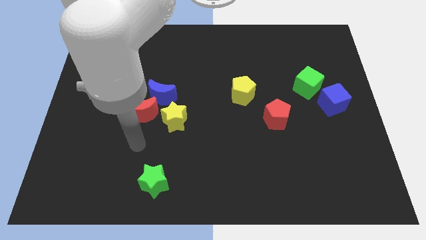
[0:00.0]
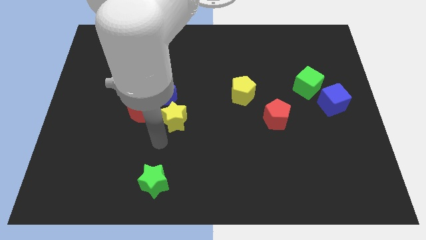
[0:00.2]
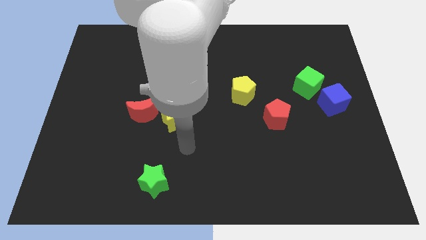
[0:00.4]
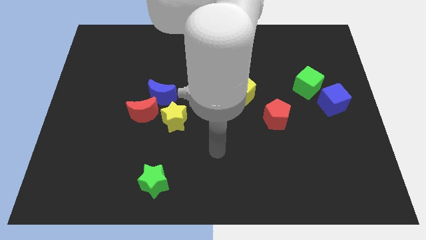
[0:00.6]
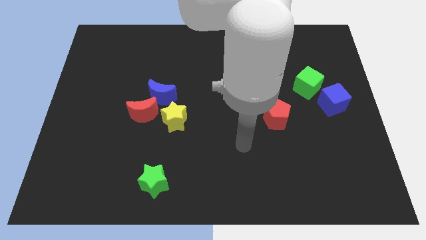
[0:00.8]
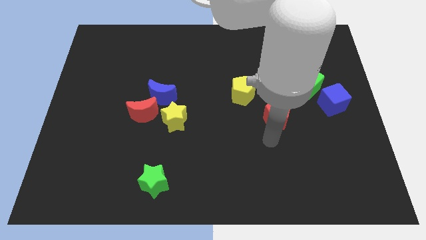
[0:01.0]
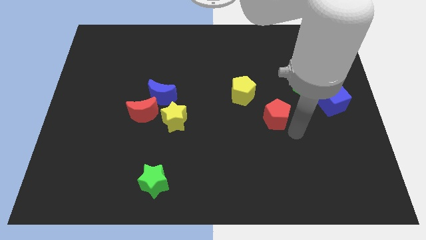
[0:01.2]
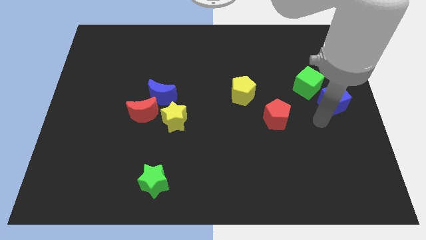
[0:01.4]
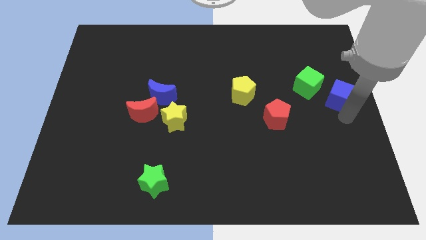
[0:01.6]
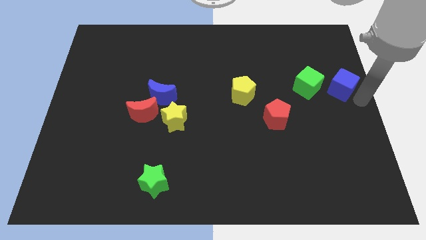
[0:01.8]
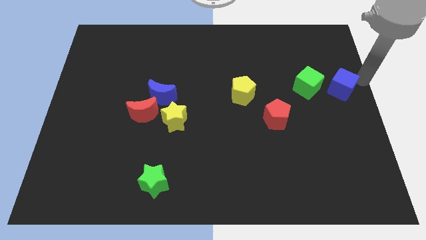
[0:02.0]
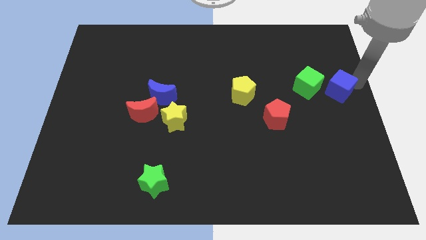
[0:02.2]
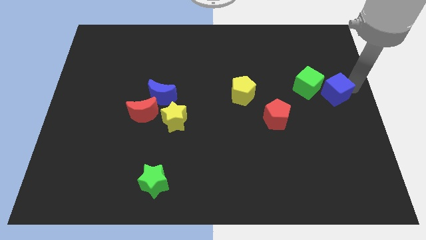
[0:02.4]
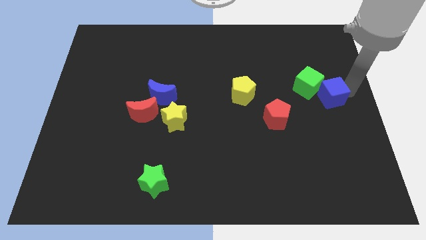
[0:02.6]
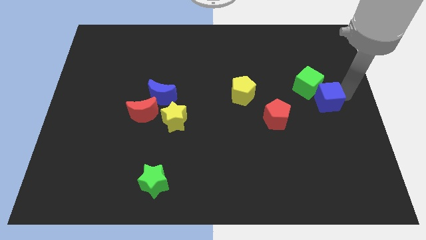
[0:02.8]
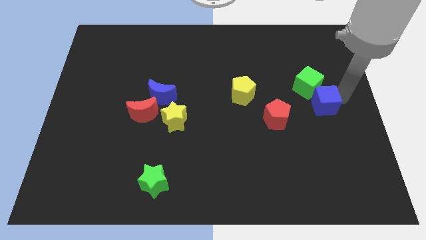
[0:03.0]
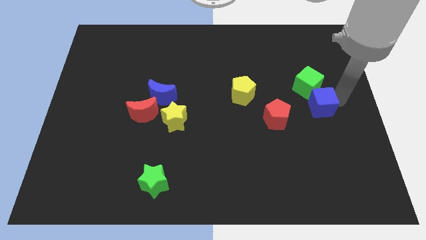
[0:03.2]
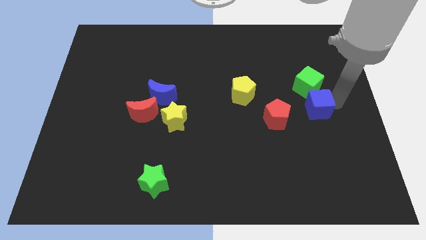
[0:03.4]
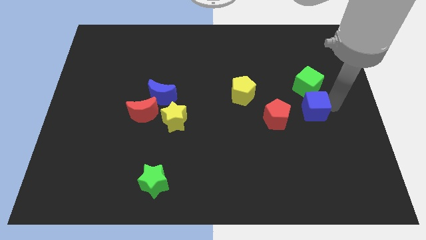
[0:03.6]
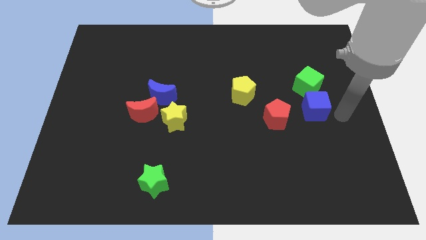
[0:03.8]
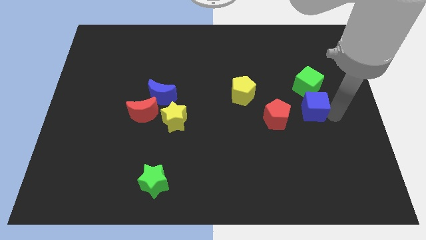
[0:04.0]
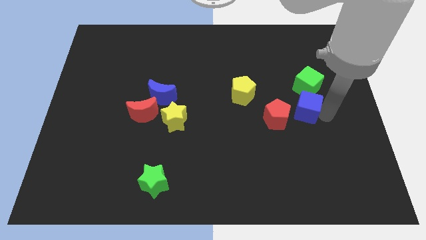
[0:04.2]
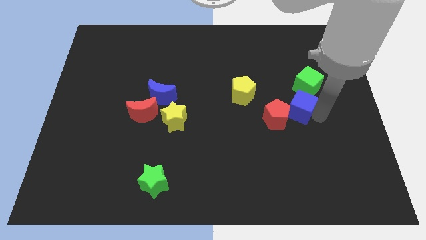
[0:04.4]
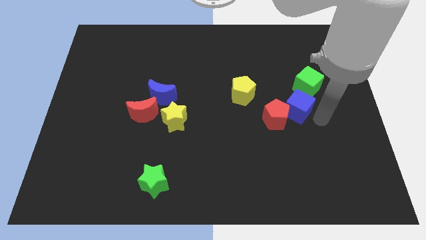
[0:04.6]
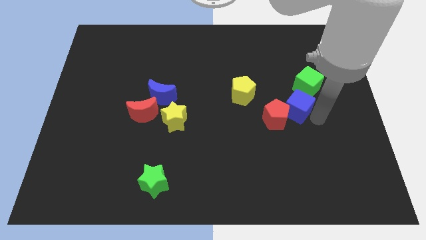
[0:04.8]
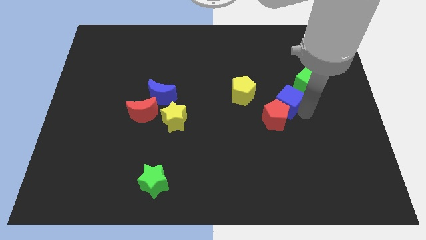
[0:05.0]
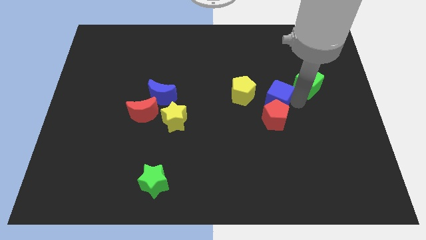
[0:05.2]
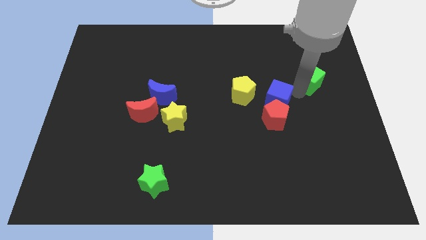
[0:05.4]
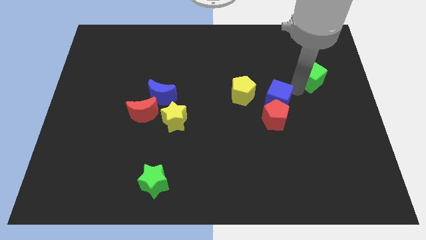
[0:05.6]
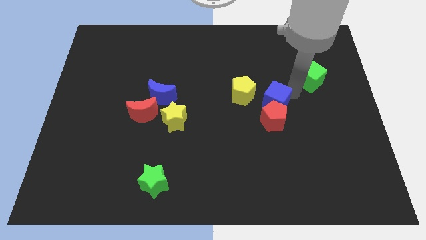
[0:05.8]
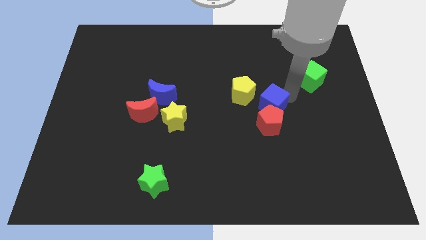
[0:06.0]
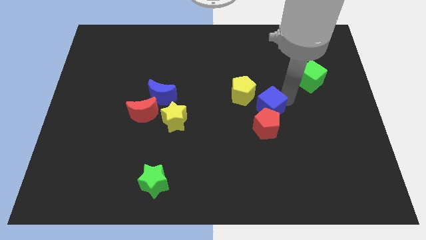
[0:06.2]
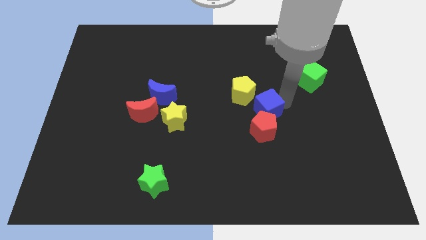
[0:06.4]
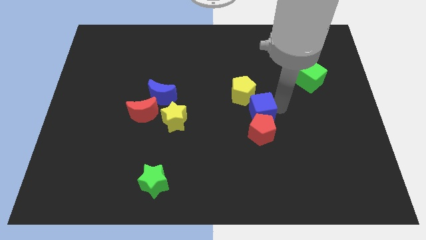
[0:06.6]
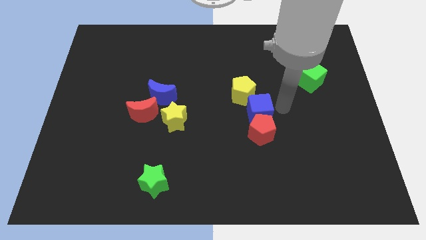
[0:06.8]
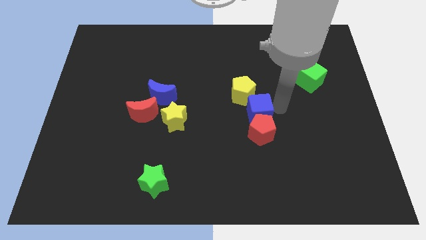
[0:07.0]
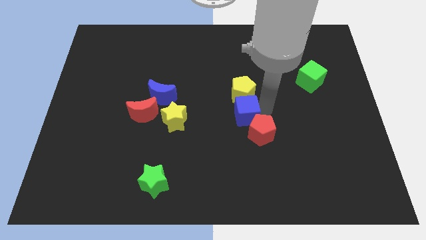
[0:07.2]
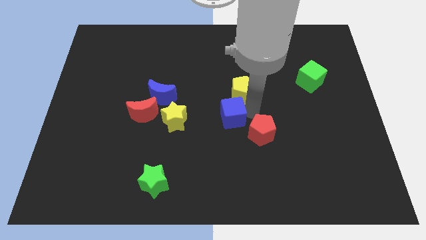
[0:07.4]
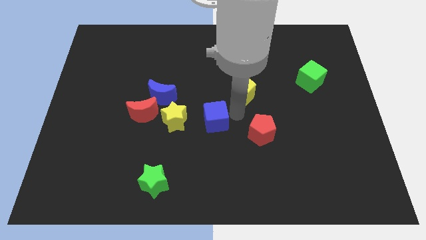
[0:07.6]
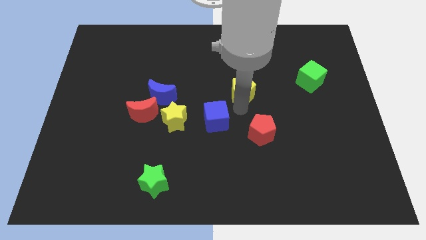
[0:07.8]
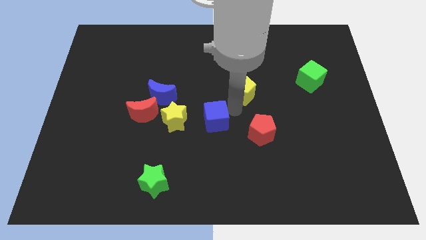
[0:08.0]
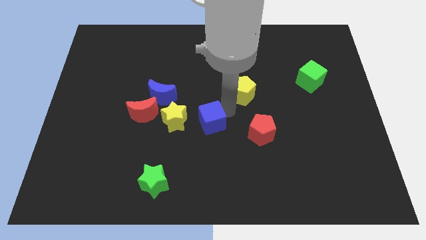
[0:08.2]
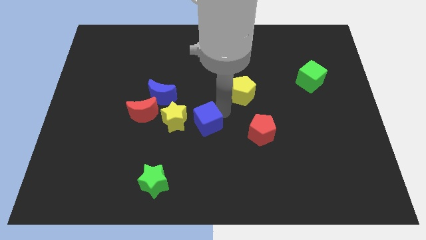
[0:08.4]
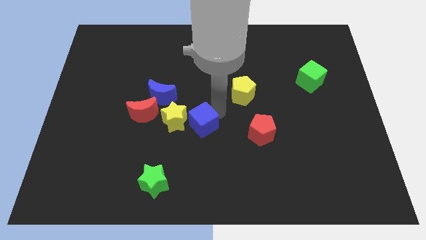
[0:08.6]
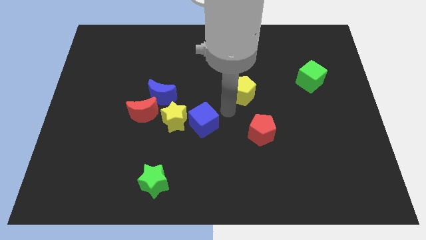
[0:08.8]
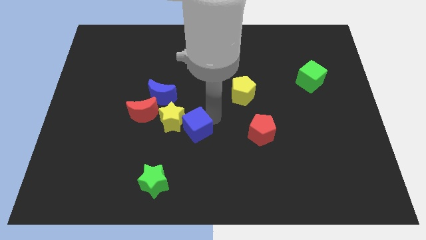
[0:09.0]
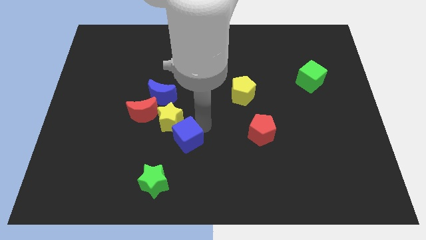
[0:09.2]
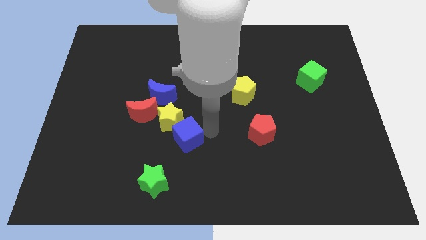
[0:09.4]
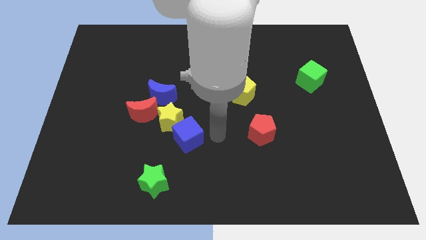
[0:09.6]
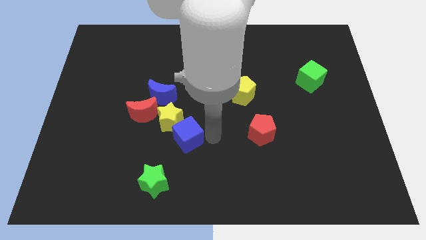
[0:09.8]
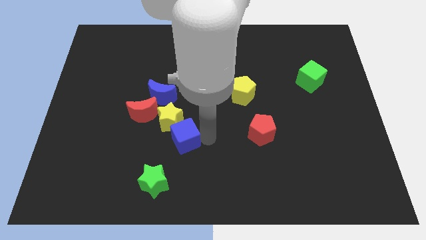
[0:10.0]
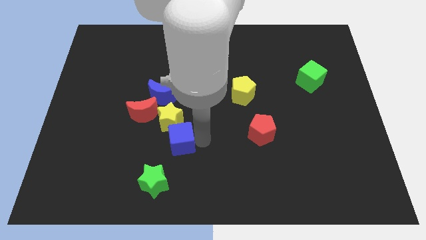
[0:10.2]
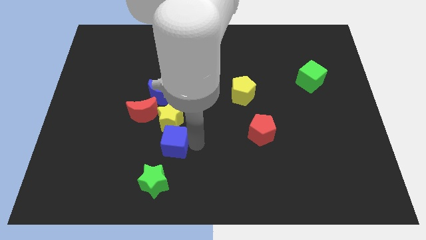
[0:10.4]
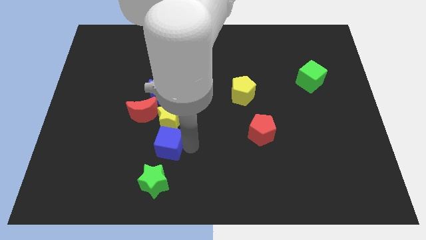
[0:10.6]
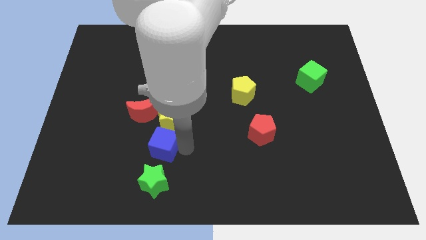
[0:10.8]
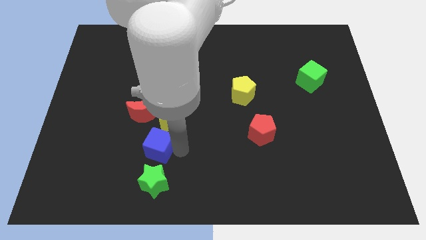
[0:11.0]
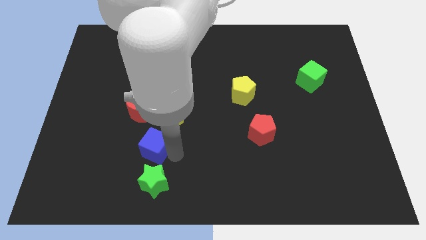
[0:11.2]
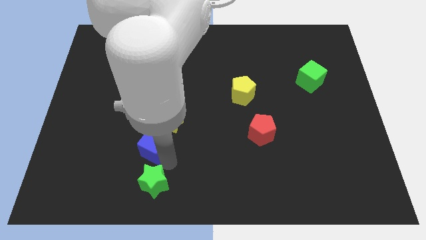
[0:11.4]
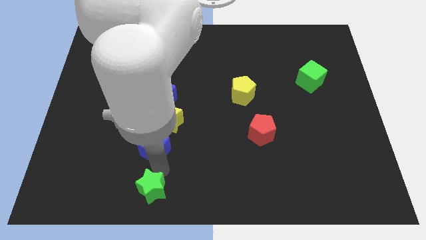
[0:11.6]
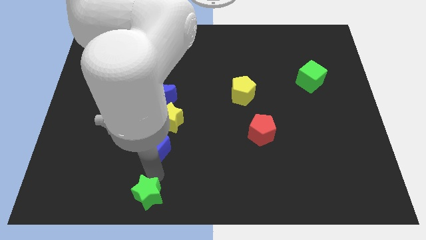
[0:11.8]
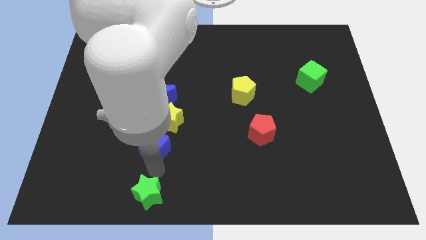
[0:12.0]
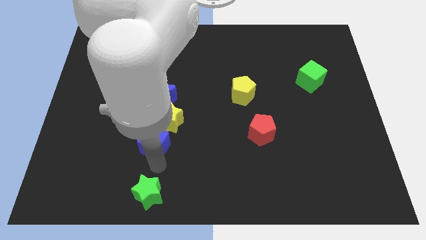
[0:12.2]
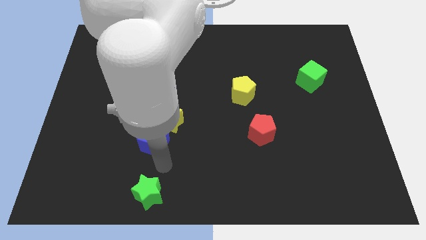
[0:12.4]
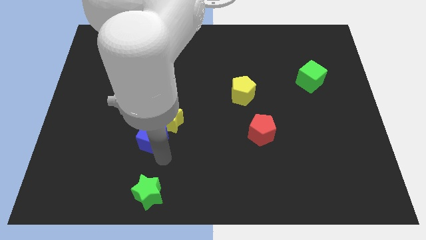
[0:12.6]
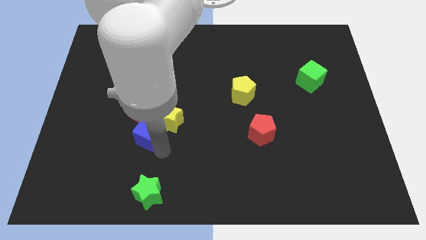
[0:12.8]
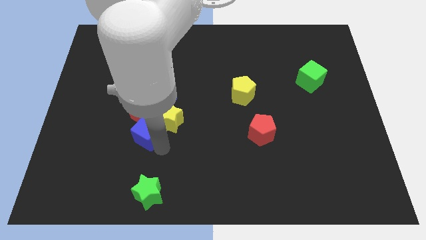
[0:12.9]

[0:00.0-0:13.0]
slide the blue cube next to the red moon

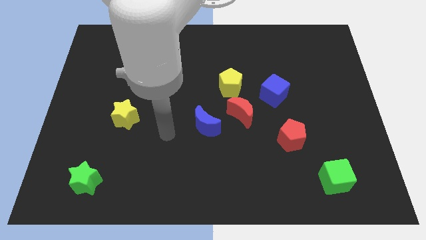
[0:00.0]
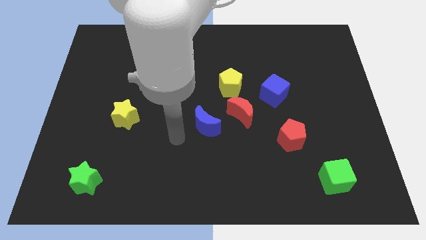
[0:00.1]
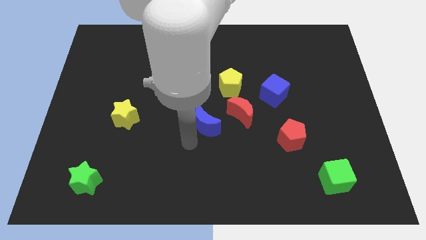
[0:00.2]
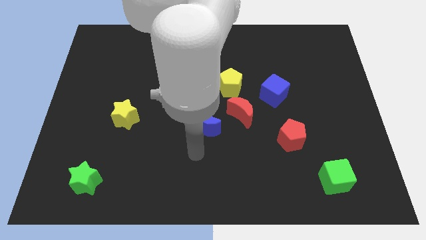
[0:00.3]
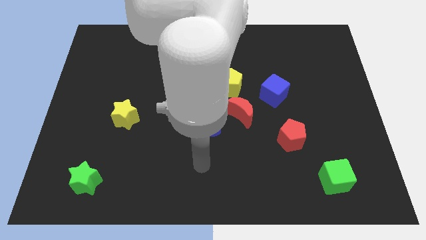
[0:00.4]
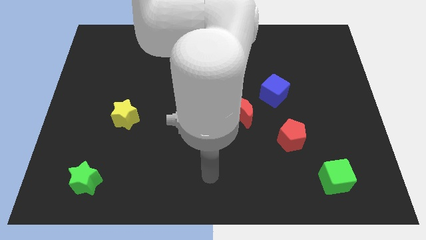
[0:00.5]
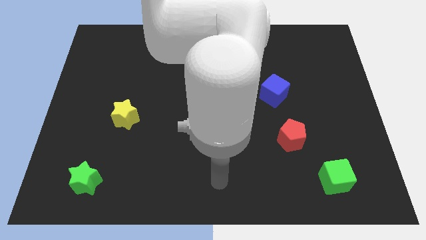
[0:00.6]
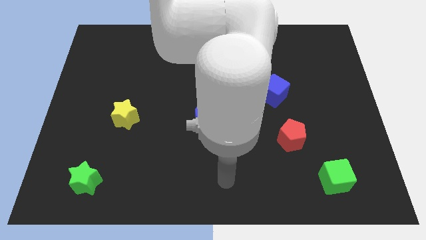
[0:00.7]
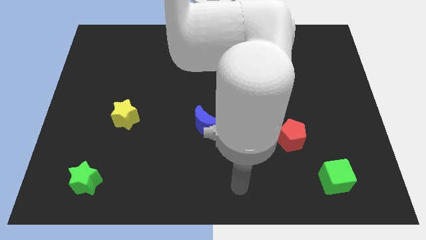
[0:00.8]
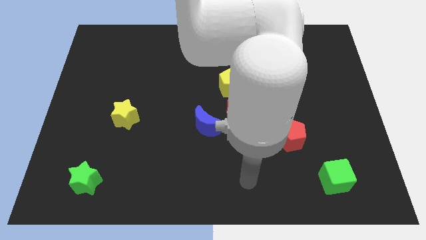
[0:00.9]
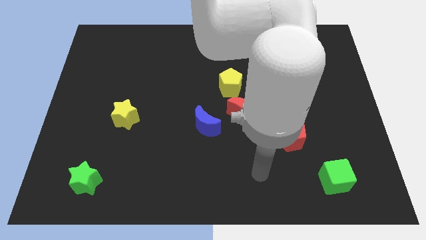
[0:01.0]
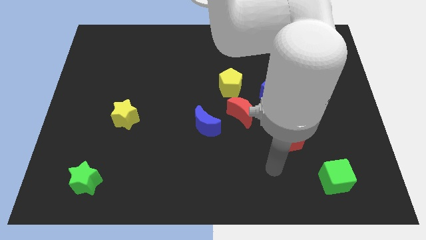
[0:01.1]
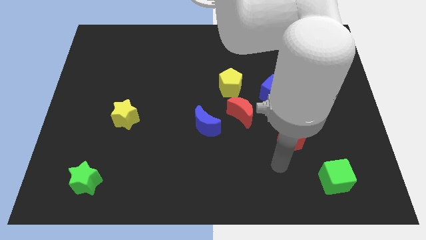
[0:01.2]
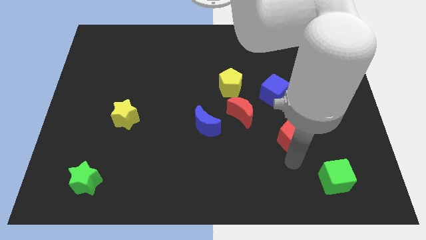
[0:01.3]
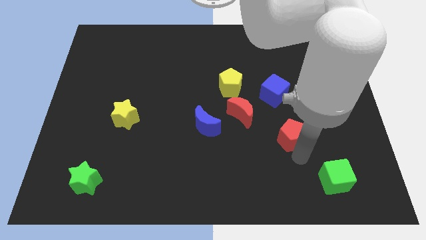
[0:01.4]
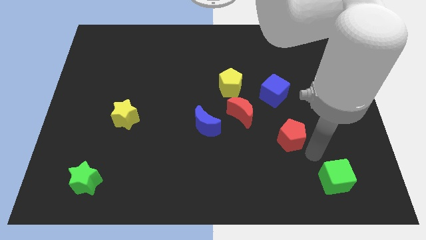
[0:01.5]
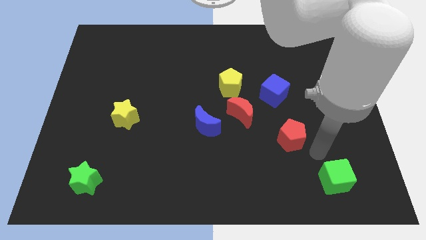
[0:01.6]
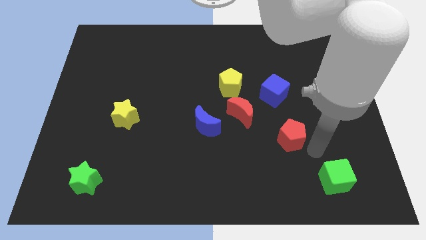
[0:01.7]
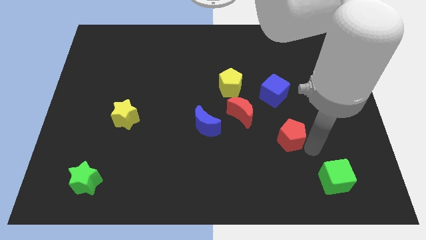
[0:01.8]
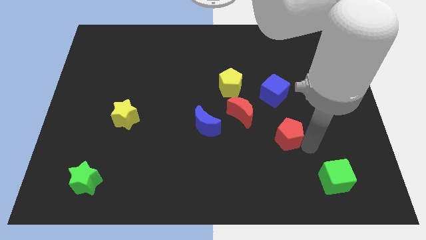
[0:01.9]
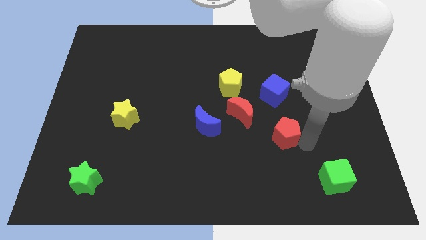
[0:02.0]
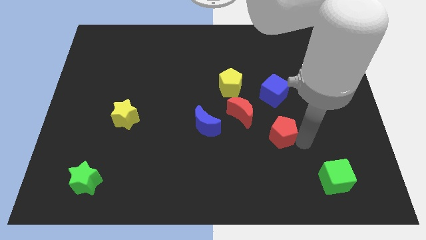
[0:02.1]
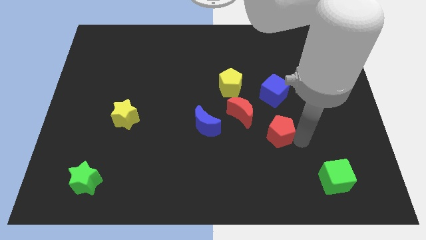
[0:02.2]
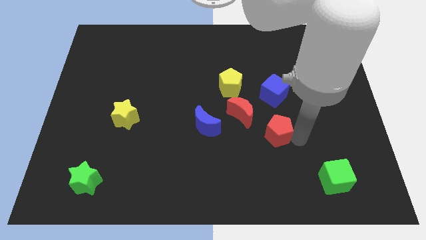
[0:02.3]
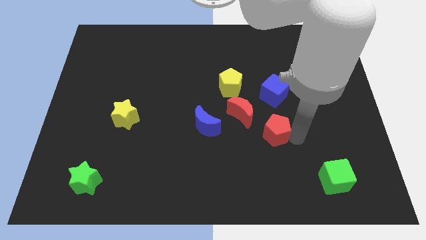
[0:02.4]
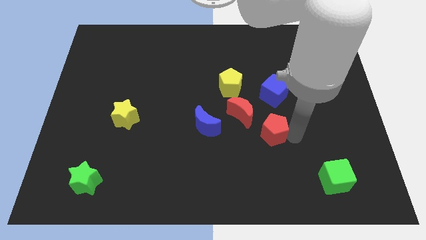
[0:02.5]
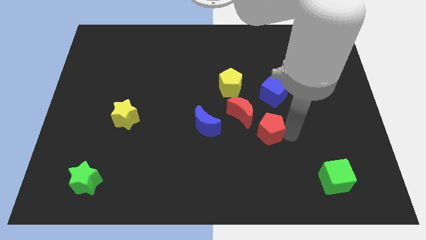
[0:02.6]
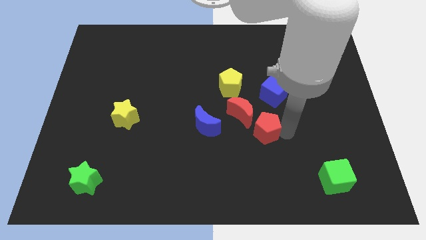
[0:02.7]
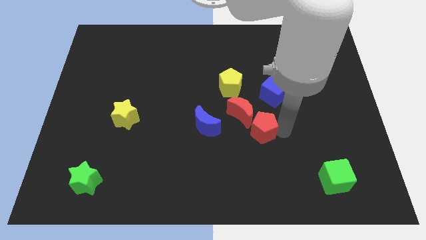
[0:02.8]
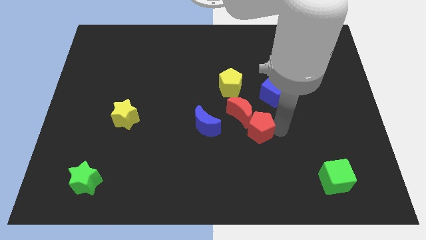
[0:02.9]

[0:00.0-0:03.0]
push the red pentagon close to the red moon
